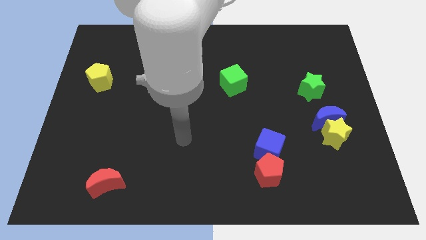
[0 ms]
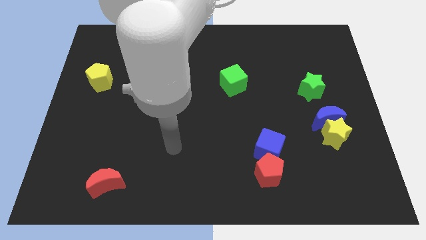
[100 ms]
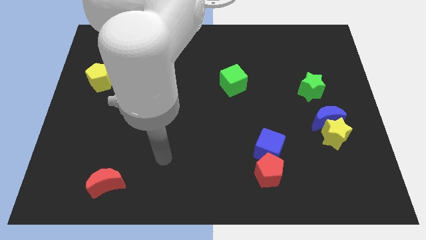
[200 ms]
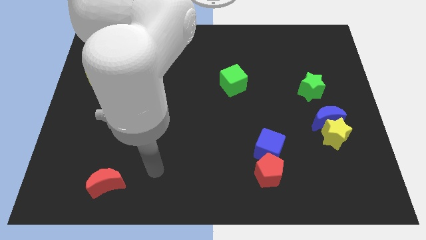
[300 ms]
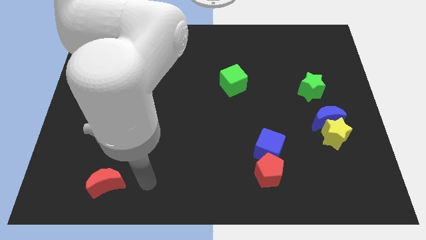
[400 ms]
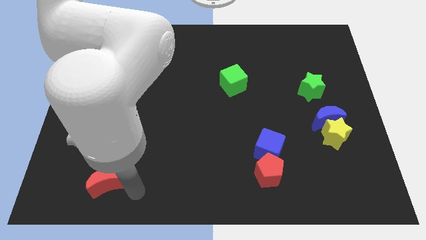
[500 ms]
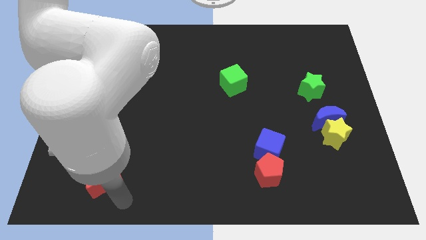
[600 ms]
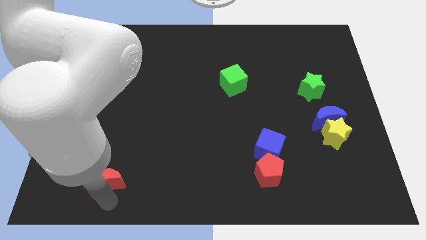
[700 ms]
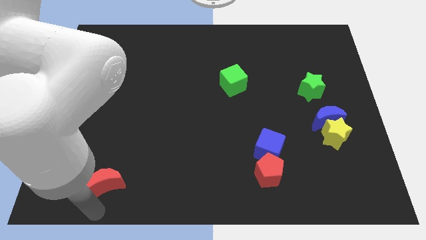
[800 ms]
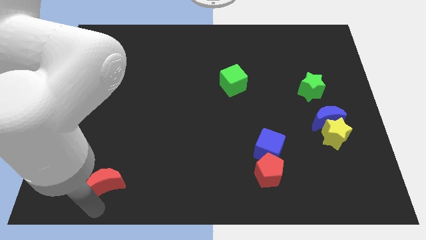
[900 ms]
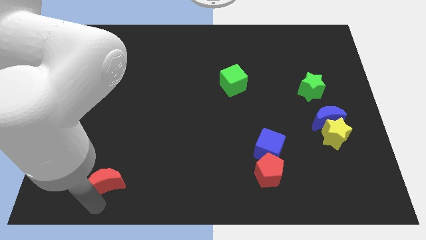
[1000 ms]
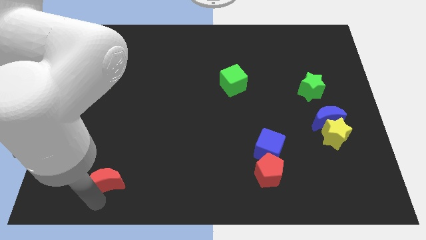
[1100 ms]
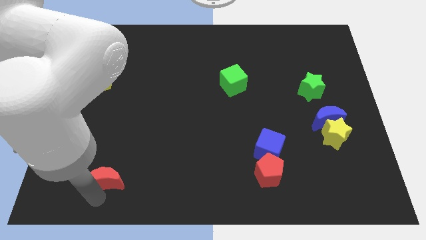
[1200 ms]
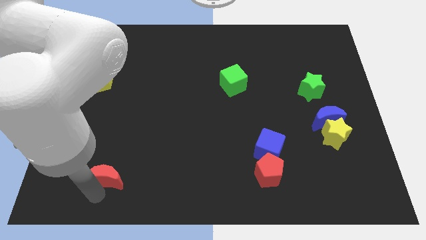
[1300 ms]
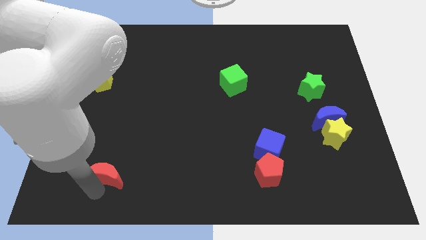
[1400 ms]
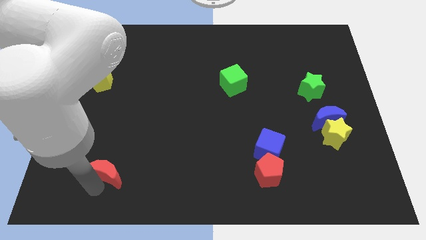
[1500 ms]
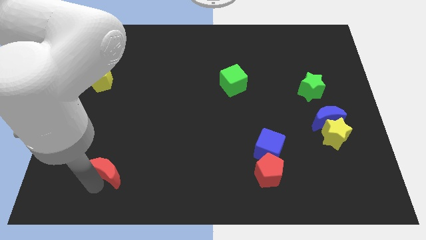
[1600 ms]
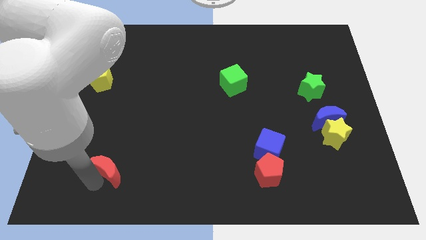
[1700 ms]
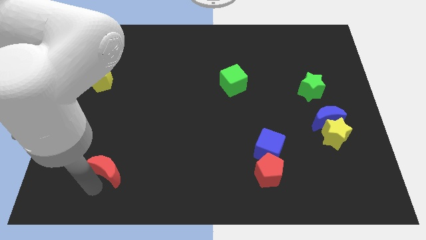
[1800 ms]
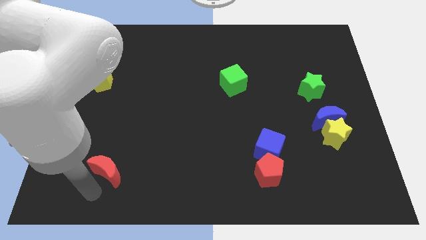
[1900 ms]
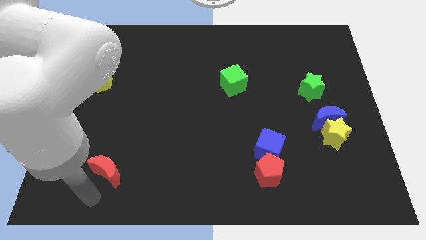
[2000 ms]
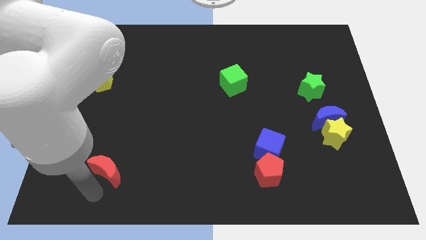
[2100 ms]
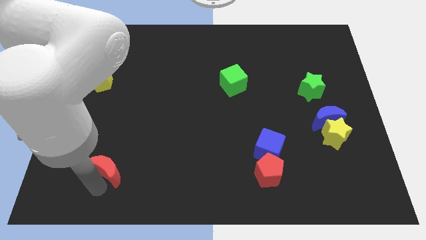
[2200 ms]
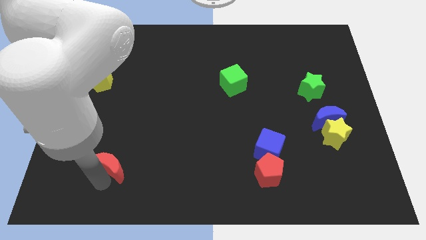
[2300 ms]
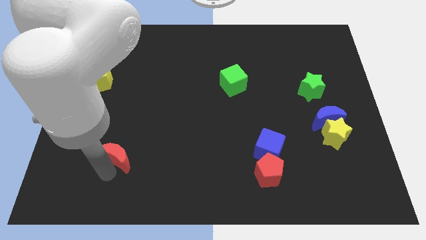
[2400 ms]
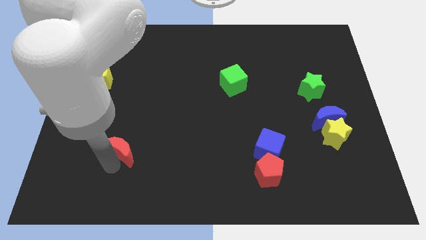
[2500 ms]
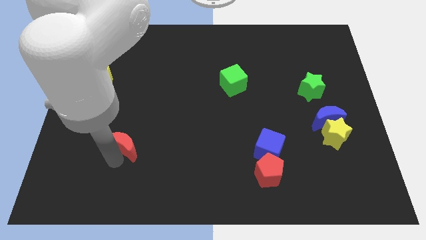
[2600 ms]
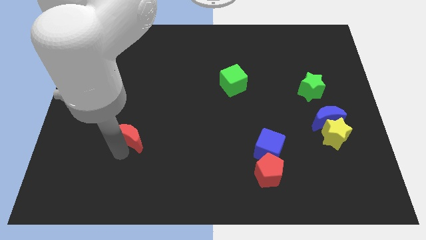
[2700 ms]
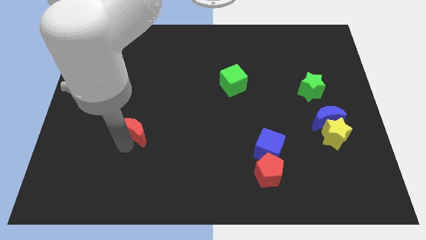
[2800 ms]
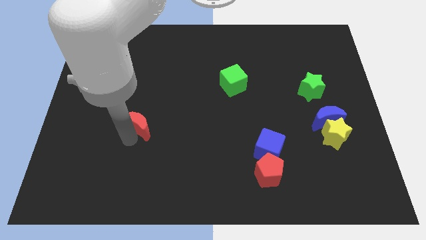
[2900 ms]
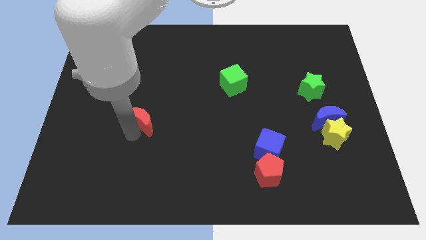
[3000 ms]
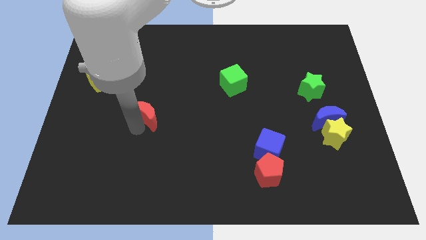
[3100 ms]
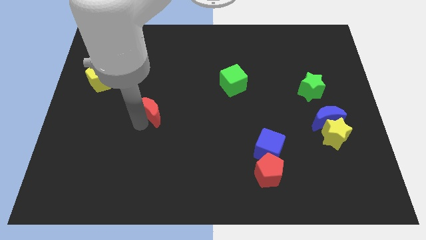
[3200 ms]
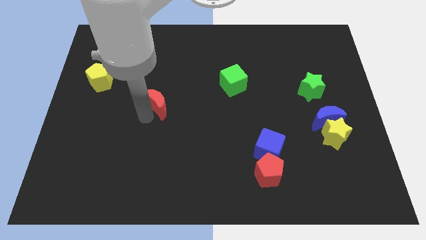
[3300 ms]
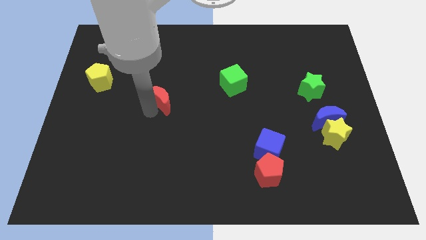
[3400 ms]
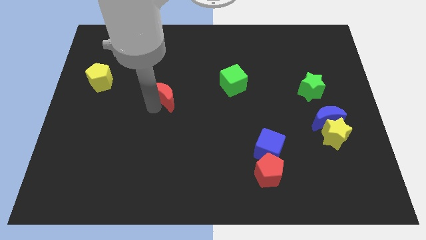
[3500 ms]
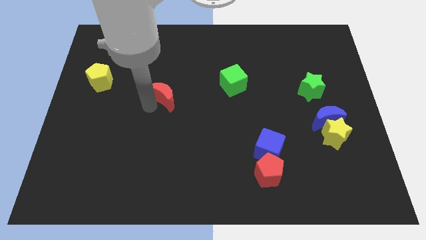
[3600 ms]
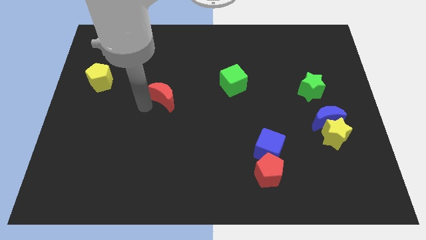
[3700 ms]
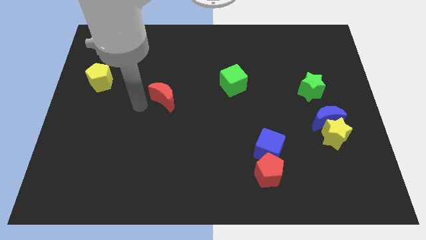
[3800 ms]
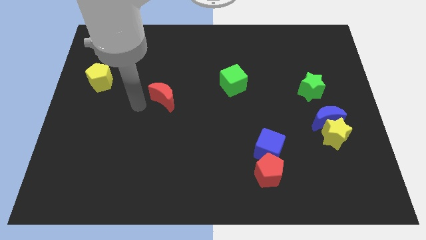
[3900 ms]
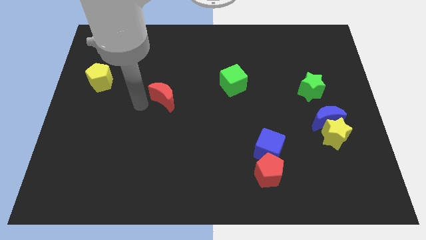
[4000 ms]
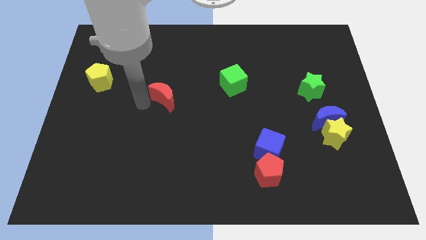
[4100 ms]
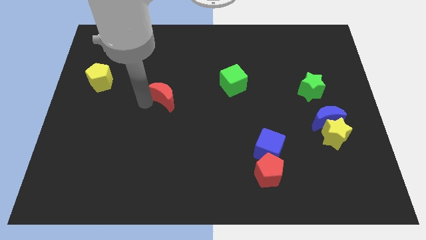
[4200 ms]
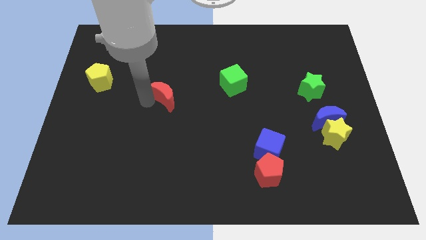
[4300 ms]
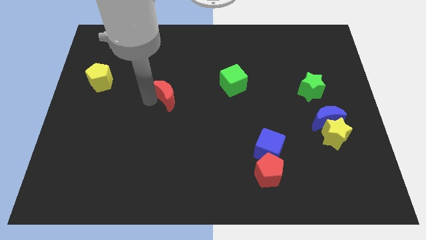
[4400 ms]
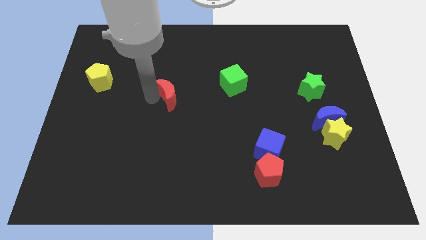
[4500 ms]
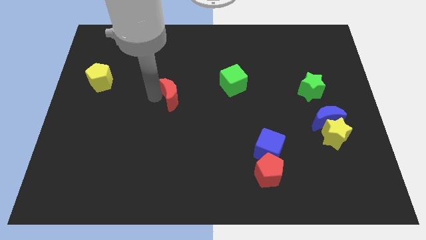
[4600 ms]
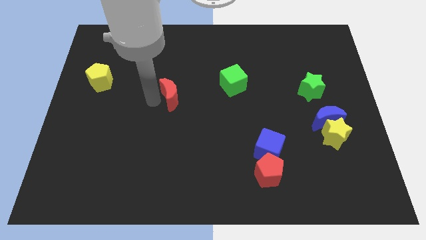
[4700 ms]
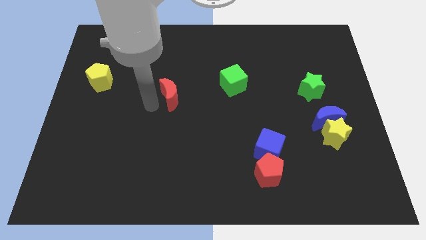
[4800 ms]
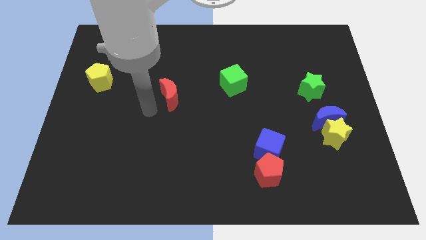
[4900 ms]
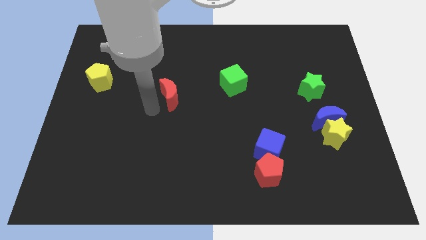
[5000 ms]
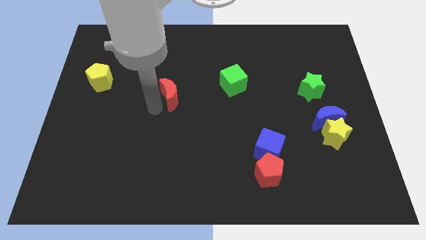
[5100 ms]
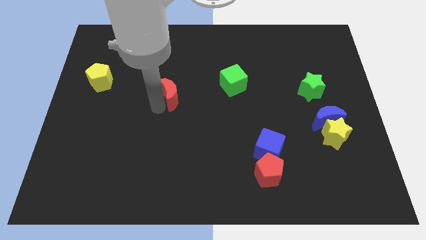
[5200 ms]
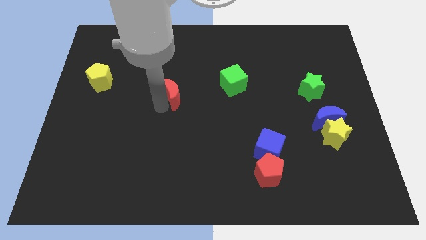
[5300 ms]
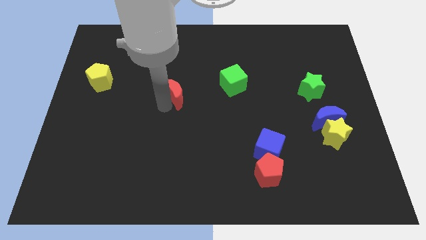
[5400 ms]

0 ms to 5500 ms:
slide the red moon to the left side of the green cube

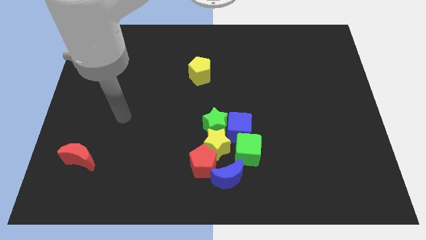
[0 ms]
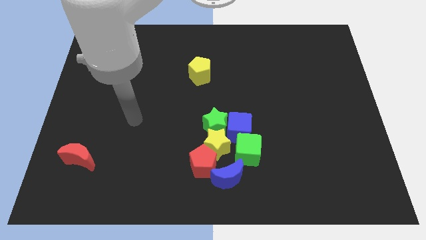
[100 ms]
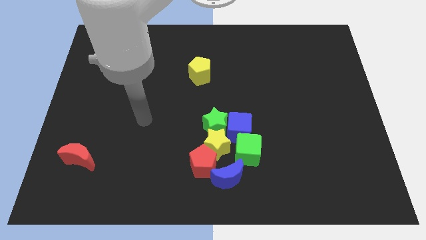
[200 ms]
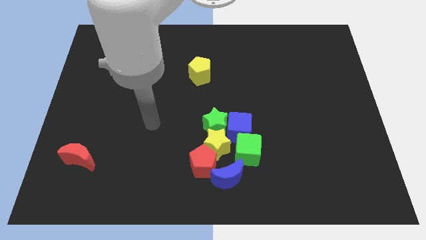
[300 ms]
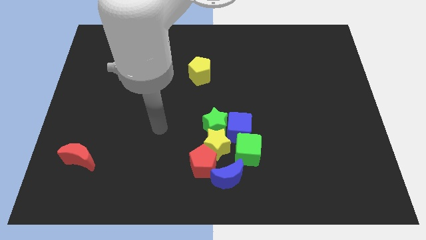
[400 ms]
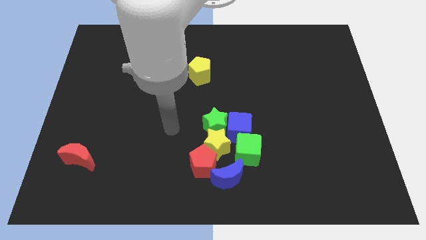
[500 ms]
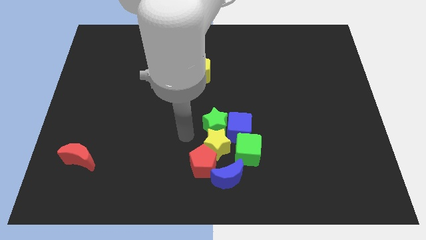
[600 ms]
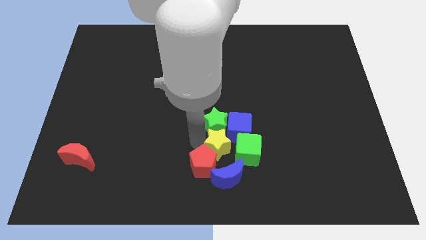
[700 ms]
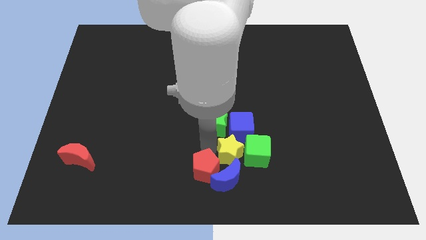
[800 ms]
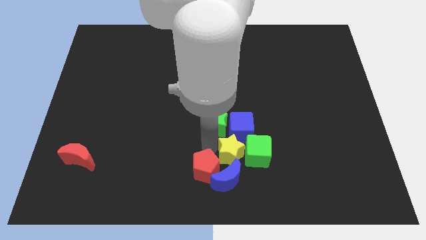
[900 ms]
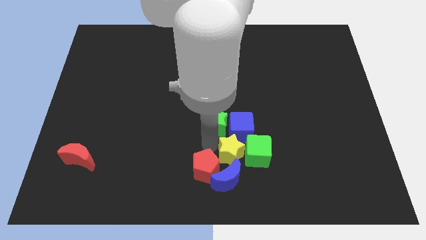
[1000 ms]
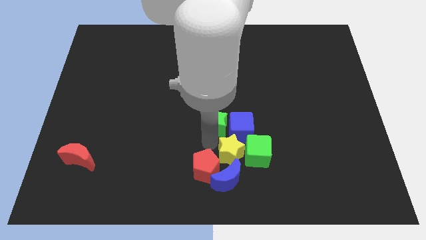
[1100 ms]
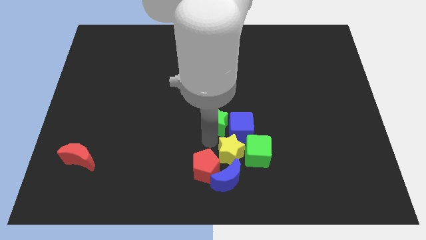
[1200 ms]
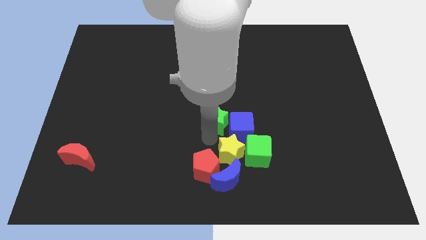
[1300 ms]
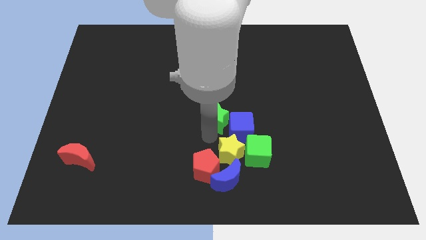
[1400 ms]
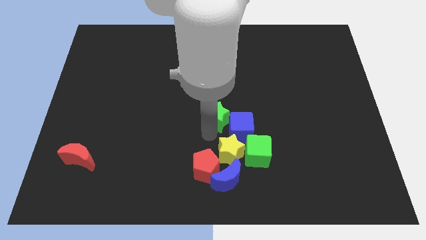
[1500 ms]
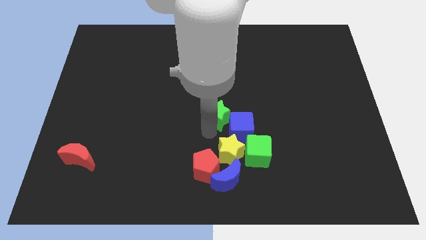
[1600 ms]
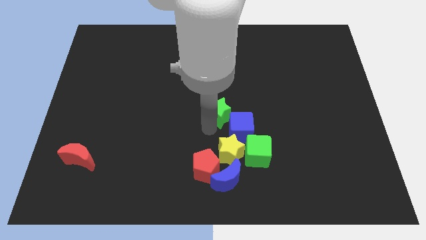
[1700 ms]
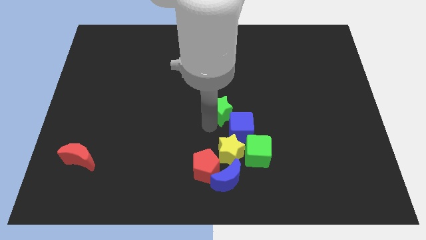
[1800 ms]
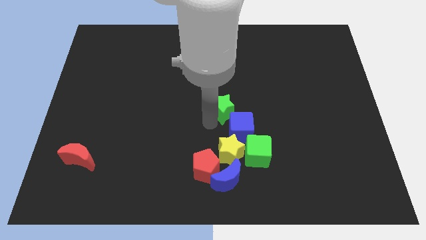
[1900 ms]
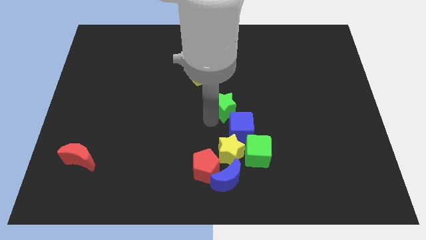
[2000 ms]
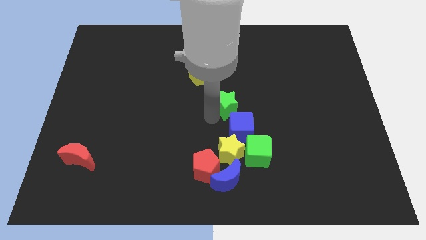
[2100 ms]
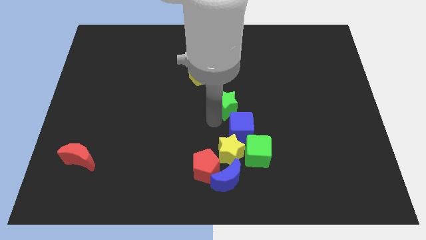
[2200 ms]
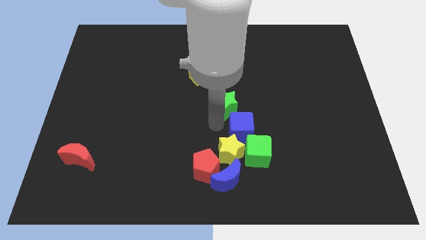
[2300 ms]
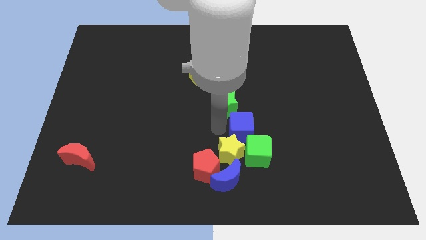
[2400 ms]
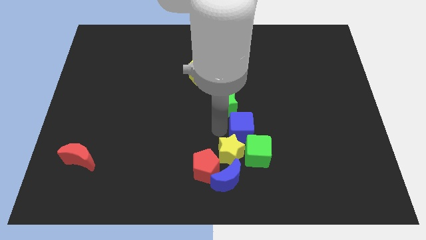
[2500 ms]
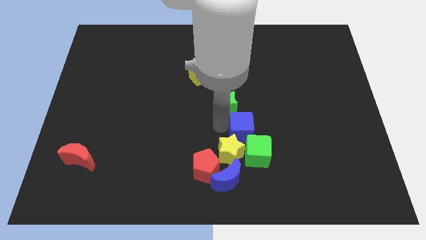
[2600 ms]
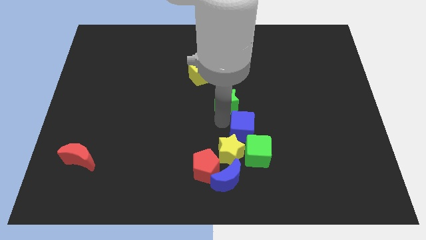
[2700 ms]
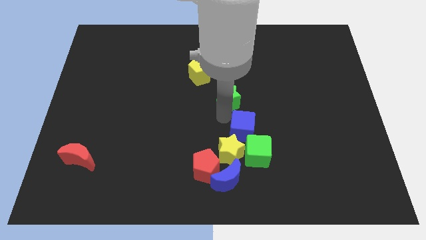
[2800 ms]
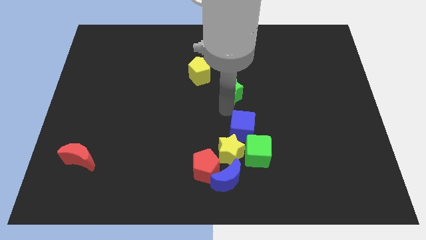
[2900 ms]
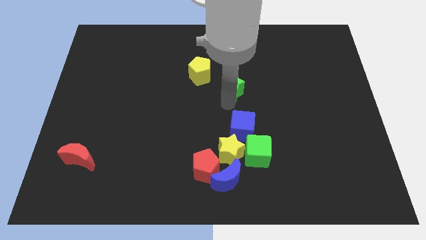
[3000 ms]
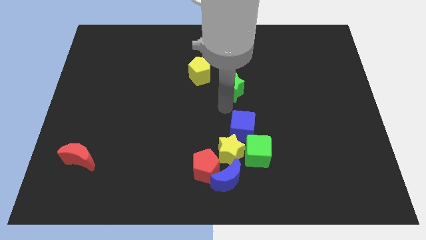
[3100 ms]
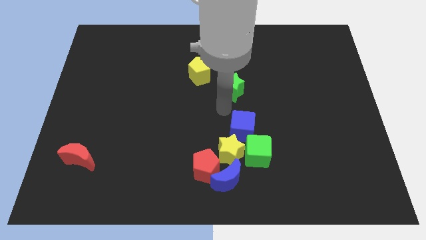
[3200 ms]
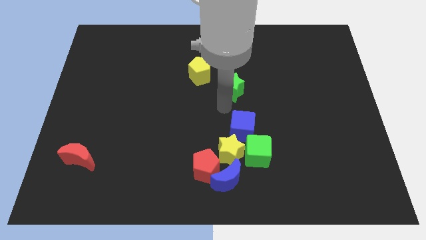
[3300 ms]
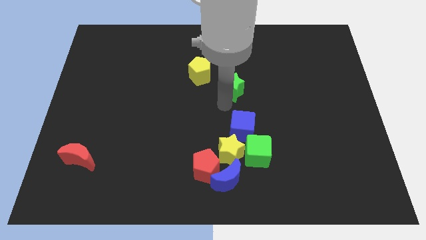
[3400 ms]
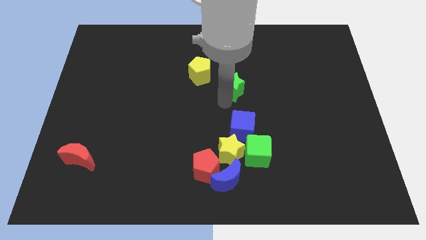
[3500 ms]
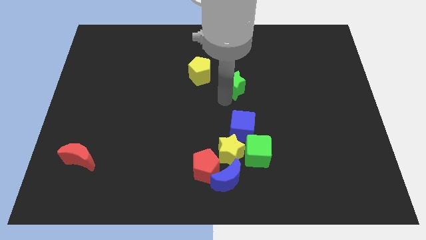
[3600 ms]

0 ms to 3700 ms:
move the green star right of the yellow pentagon
